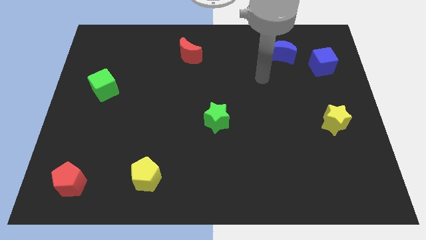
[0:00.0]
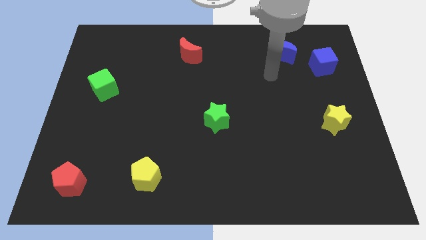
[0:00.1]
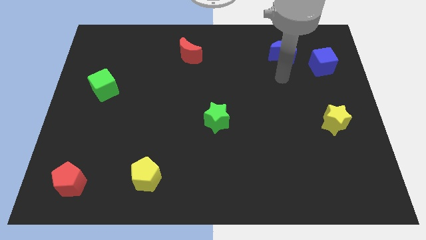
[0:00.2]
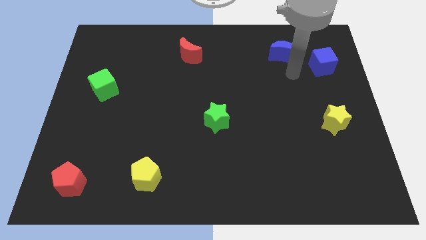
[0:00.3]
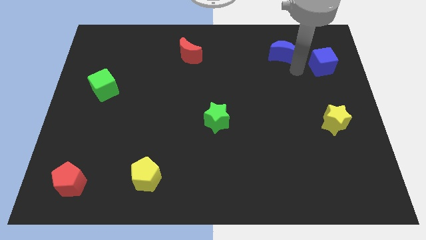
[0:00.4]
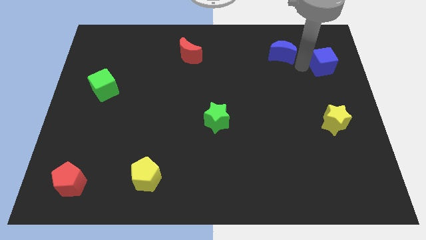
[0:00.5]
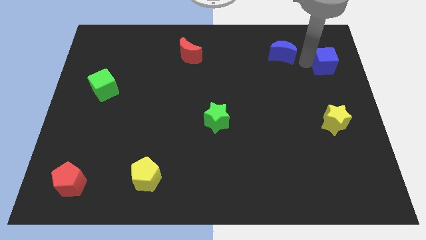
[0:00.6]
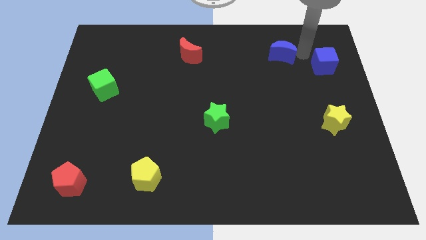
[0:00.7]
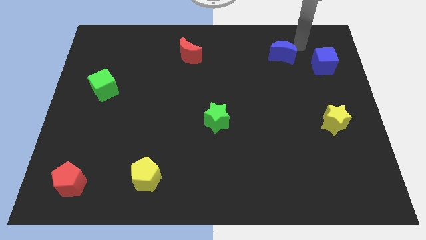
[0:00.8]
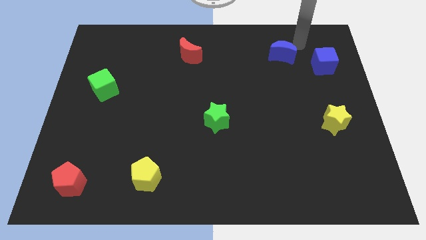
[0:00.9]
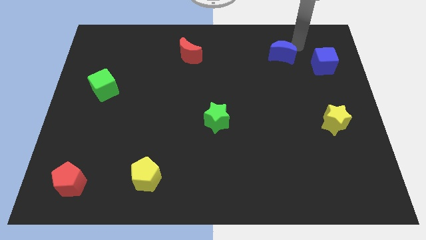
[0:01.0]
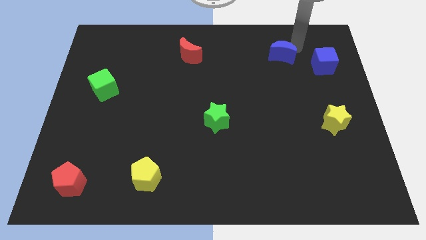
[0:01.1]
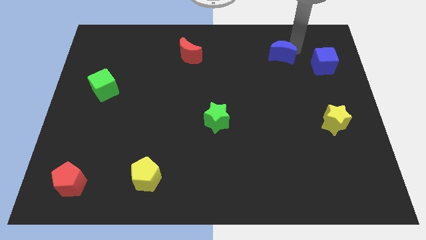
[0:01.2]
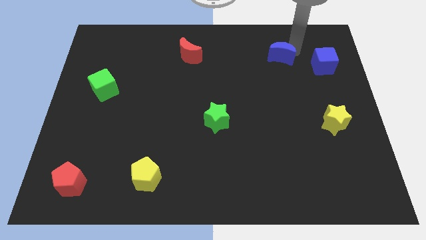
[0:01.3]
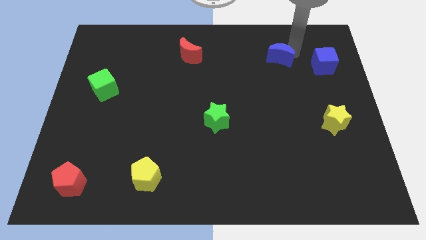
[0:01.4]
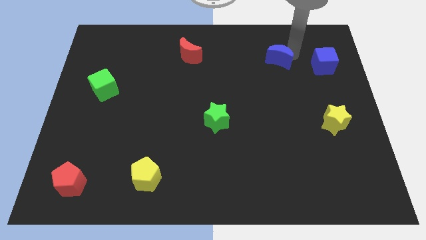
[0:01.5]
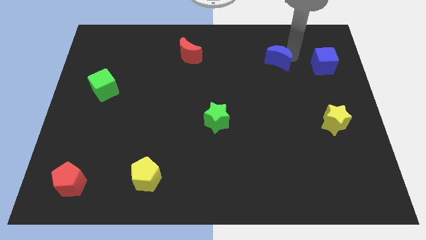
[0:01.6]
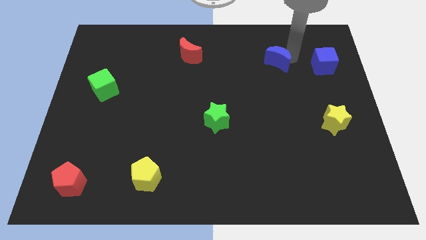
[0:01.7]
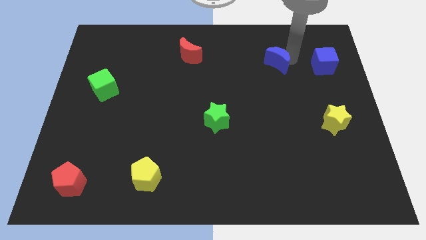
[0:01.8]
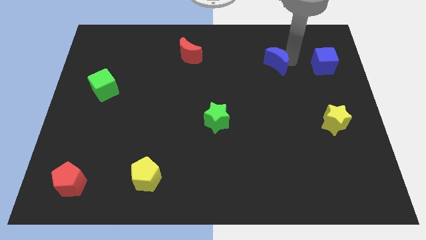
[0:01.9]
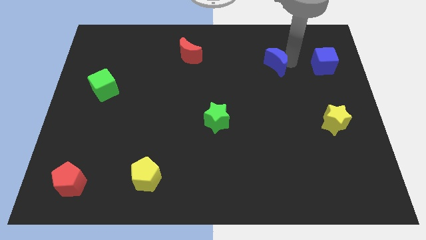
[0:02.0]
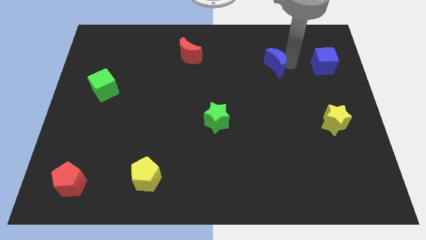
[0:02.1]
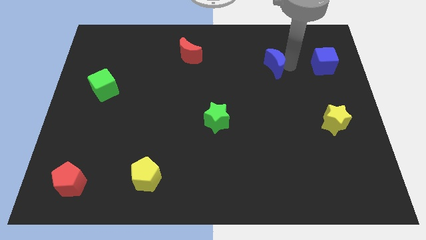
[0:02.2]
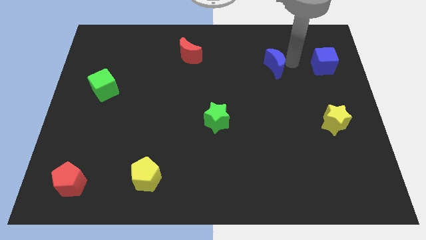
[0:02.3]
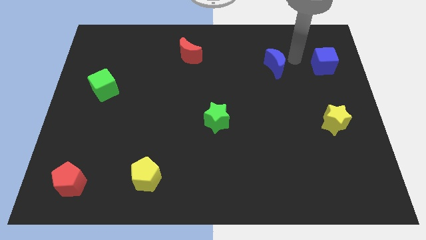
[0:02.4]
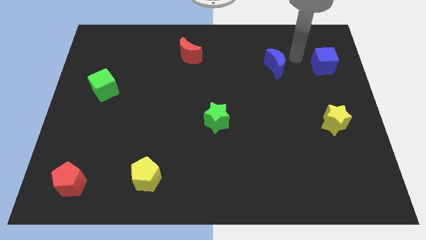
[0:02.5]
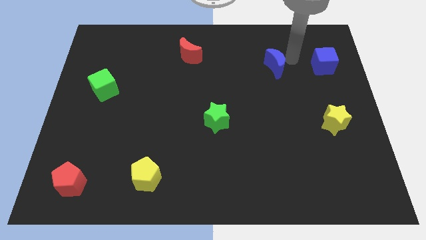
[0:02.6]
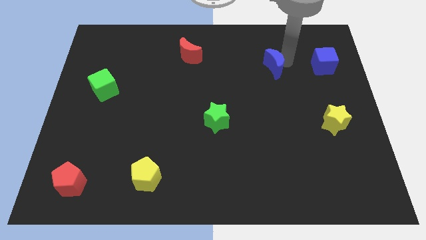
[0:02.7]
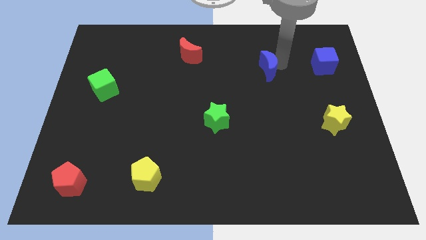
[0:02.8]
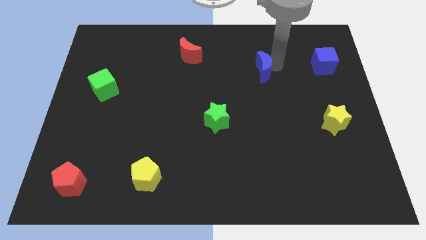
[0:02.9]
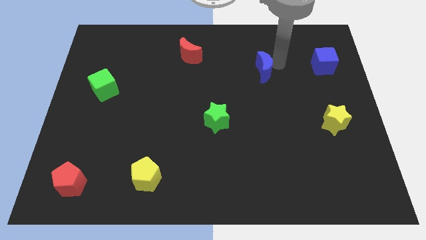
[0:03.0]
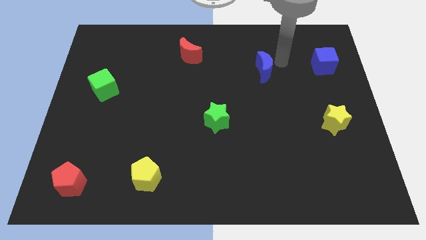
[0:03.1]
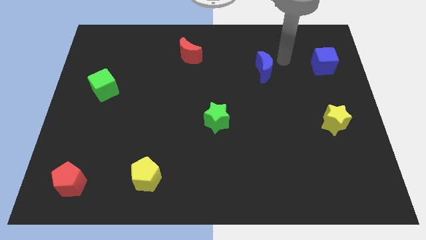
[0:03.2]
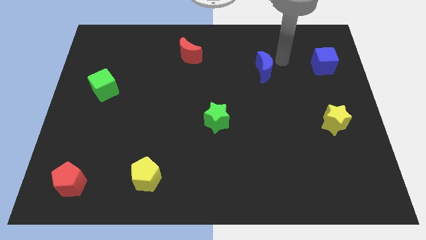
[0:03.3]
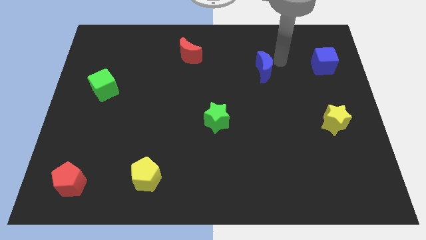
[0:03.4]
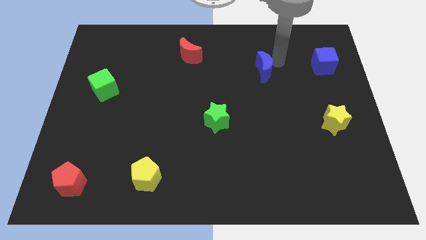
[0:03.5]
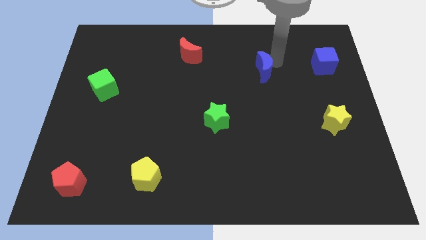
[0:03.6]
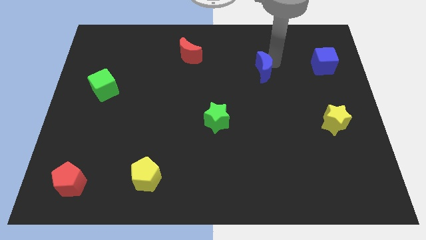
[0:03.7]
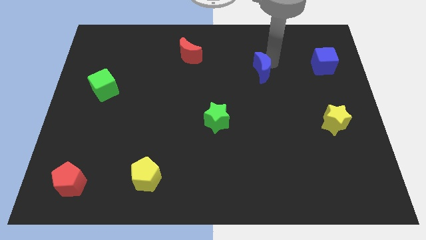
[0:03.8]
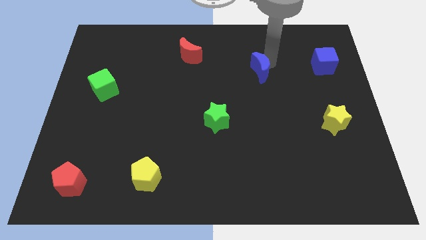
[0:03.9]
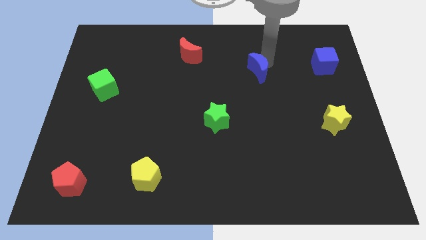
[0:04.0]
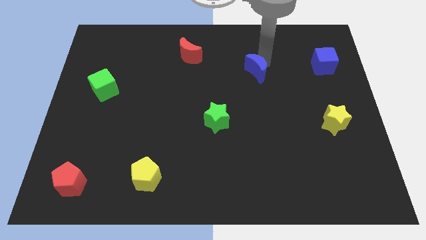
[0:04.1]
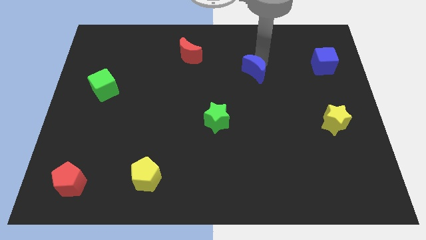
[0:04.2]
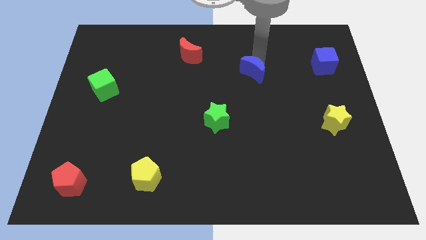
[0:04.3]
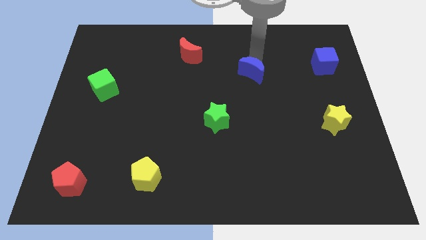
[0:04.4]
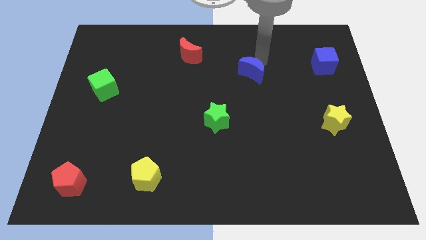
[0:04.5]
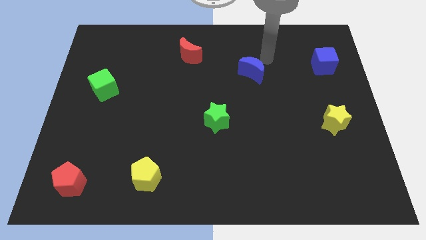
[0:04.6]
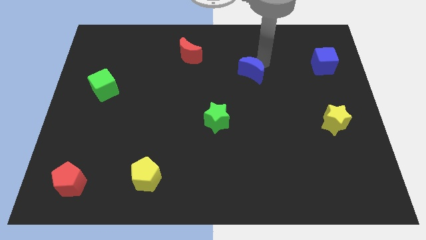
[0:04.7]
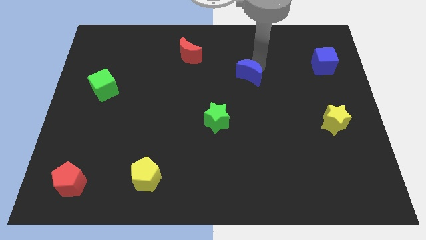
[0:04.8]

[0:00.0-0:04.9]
move the blue moon to the middle

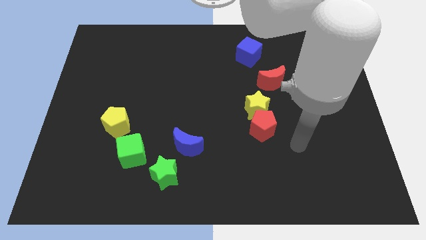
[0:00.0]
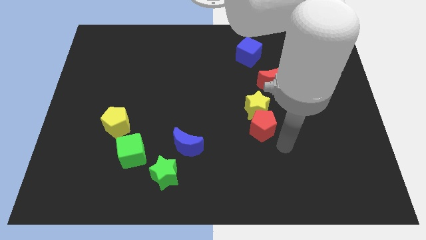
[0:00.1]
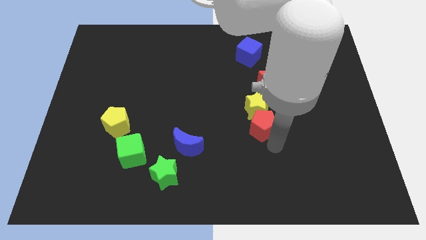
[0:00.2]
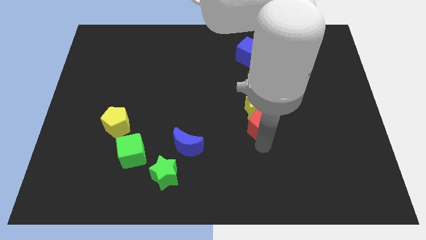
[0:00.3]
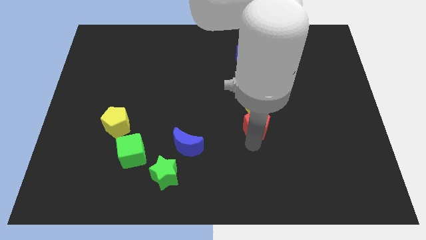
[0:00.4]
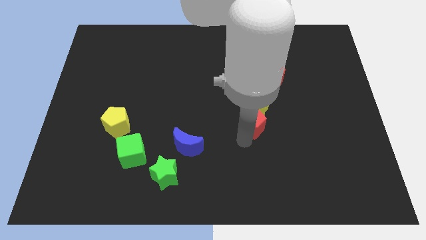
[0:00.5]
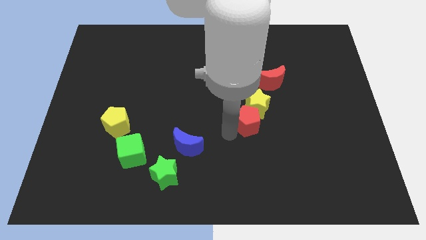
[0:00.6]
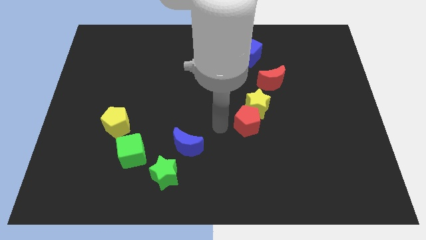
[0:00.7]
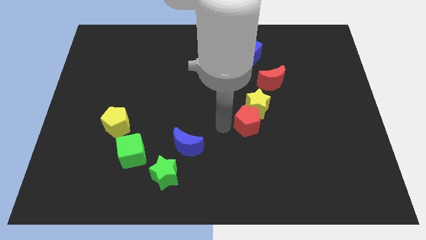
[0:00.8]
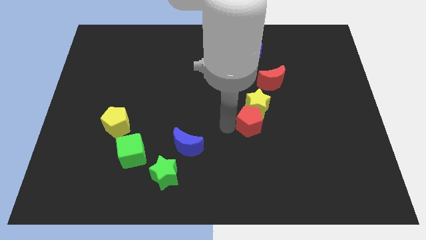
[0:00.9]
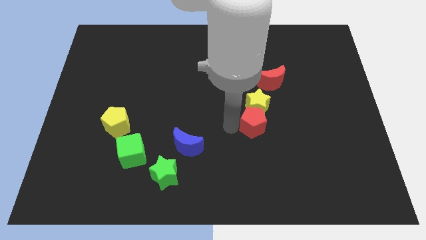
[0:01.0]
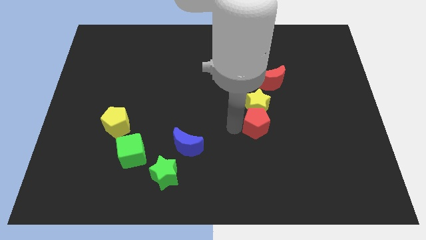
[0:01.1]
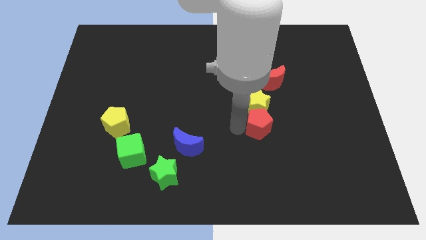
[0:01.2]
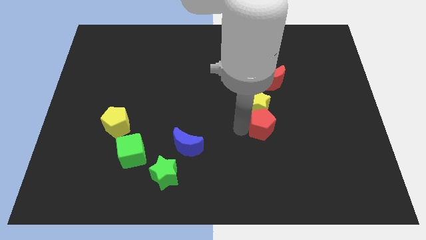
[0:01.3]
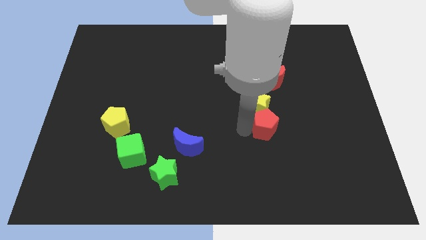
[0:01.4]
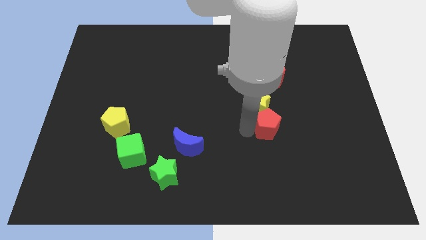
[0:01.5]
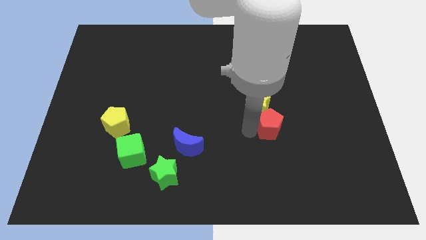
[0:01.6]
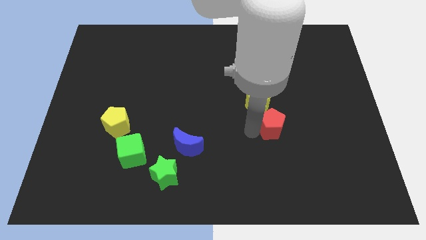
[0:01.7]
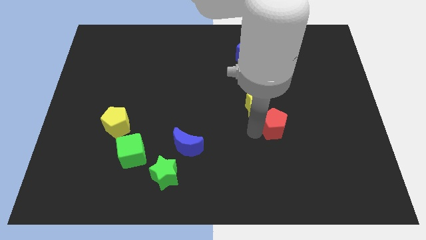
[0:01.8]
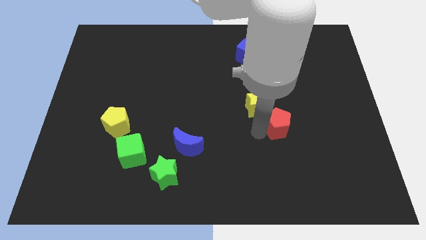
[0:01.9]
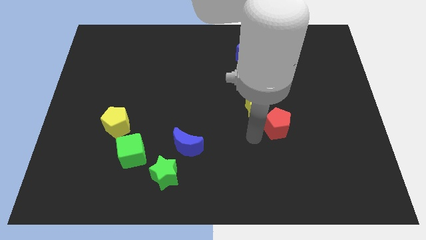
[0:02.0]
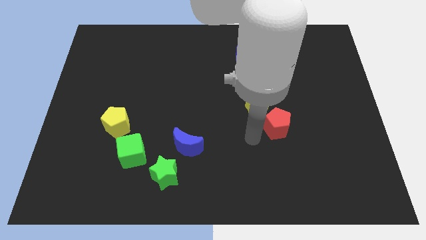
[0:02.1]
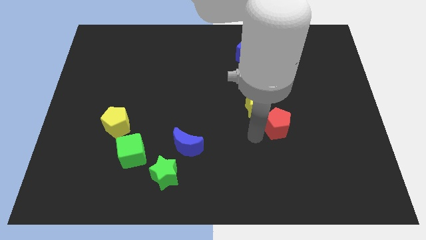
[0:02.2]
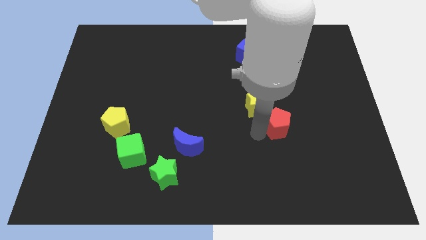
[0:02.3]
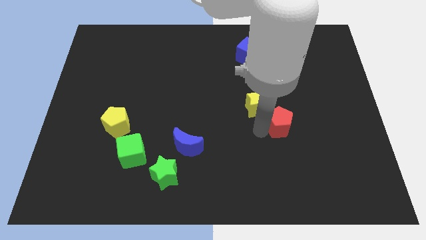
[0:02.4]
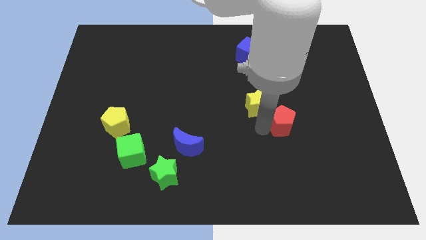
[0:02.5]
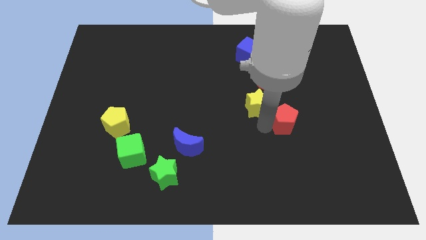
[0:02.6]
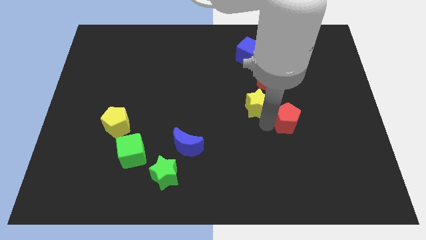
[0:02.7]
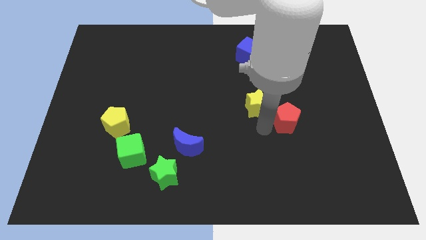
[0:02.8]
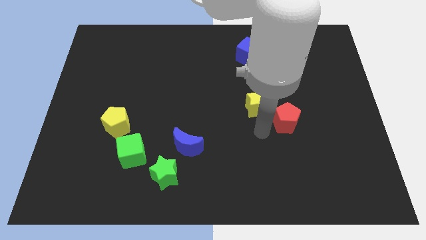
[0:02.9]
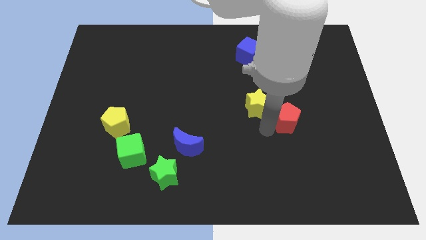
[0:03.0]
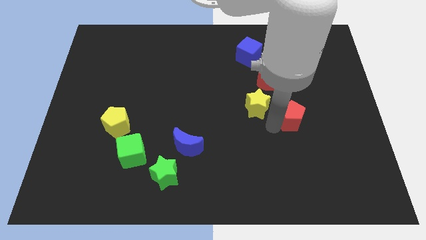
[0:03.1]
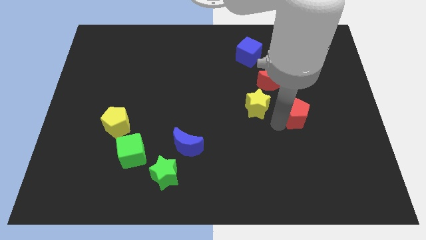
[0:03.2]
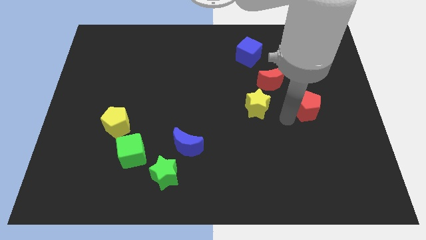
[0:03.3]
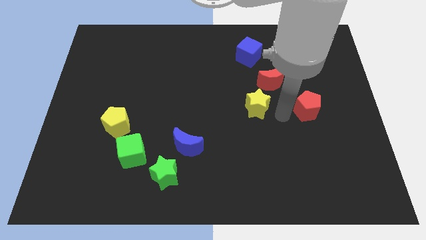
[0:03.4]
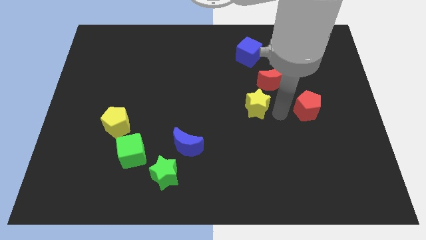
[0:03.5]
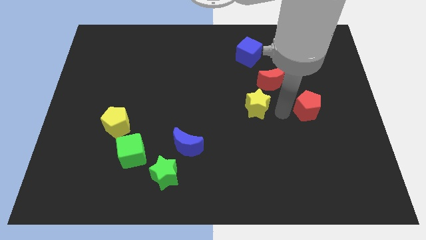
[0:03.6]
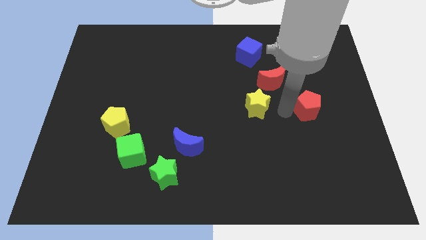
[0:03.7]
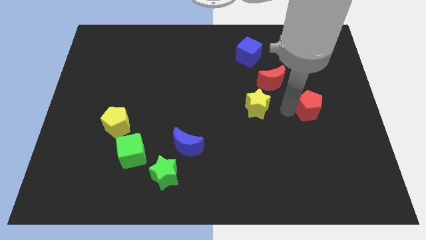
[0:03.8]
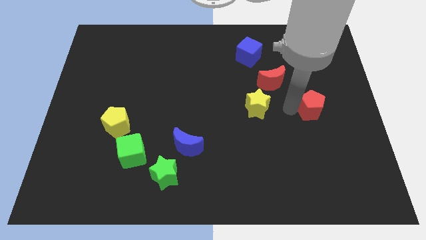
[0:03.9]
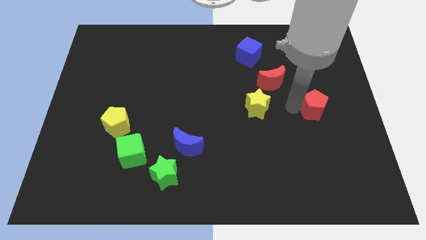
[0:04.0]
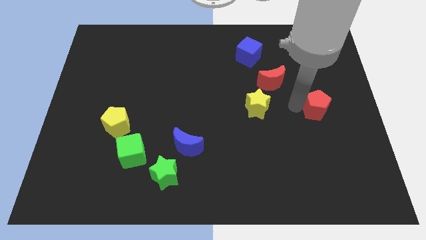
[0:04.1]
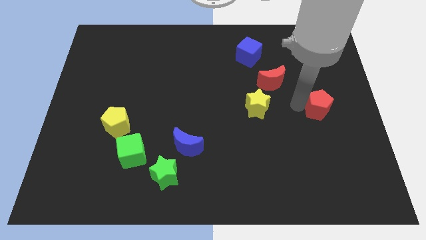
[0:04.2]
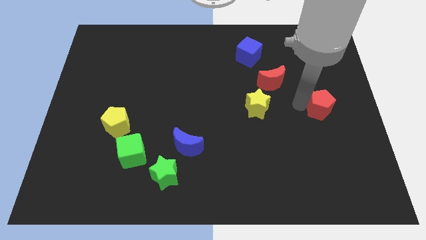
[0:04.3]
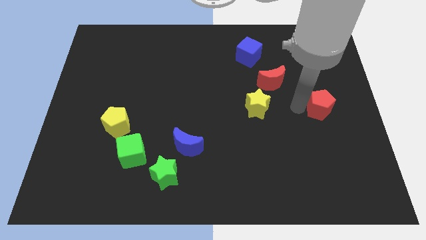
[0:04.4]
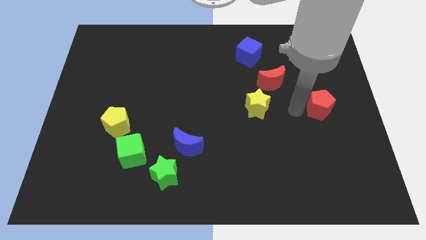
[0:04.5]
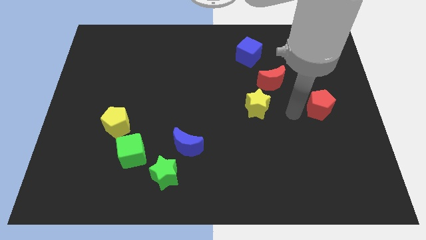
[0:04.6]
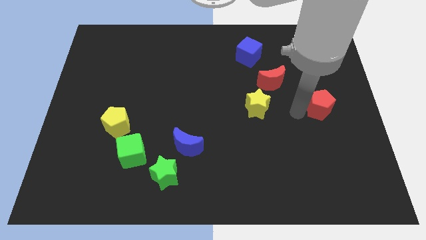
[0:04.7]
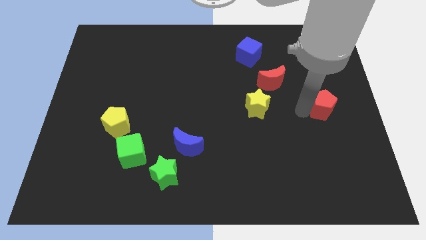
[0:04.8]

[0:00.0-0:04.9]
put the red pentagon to the right side
